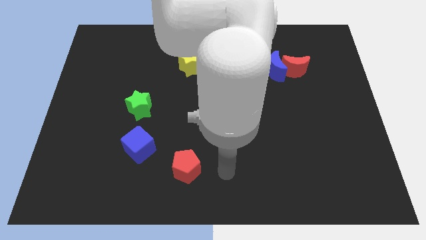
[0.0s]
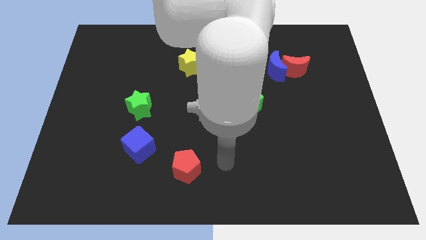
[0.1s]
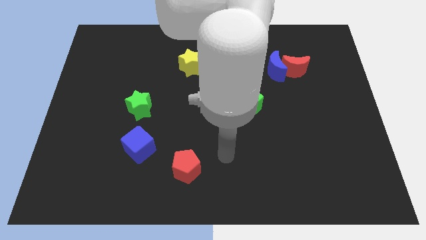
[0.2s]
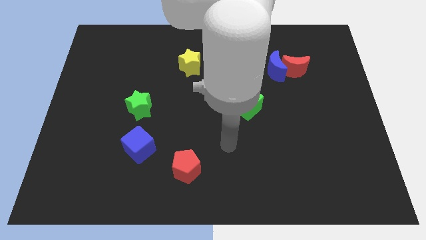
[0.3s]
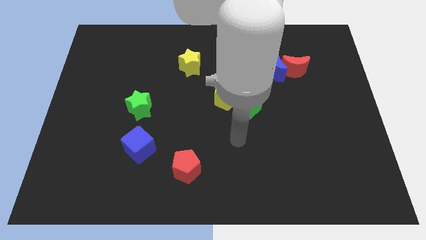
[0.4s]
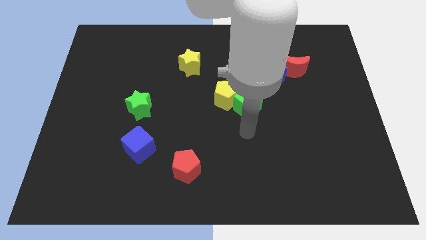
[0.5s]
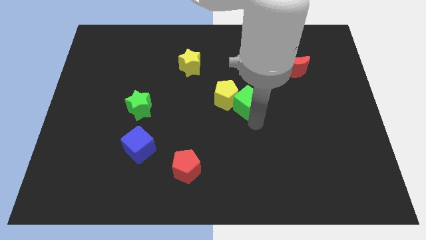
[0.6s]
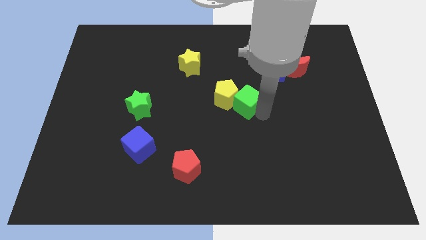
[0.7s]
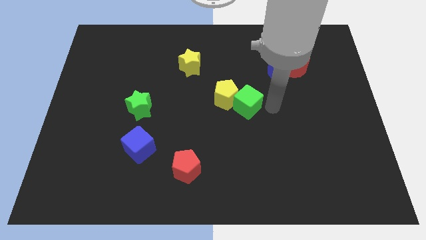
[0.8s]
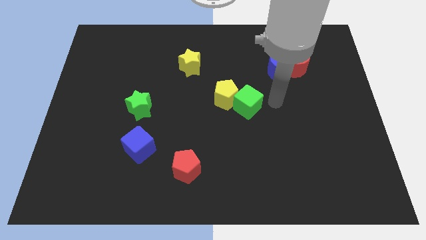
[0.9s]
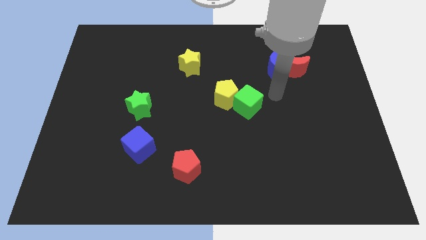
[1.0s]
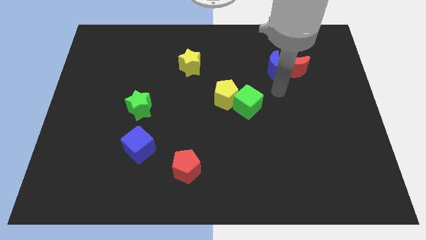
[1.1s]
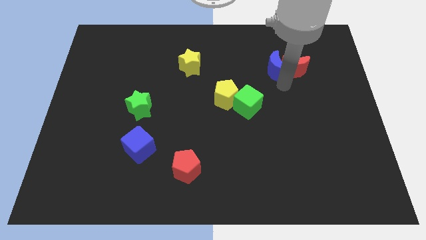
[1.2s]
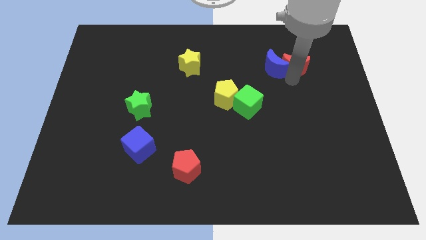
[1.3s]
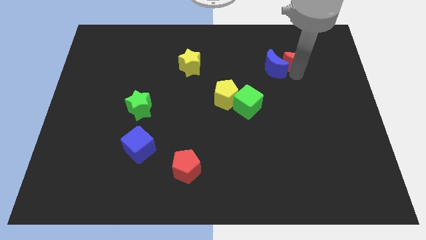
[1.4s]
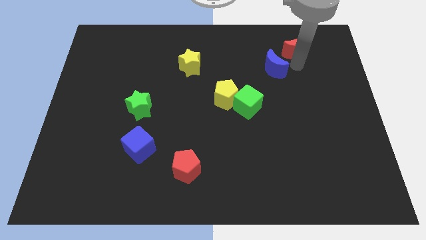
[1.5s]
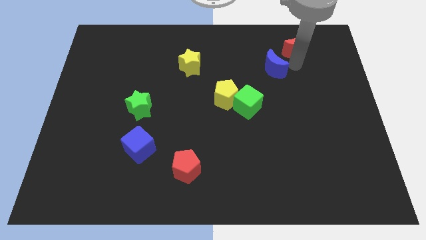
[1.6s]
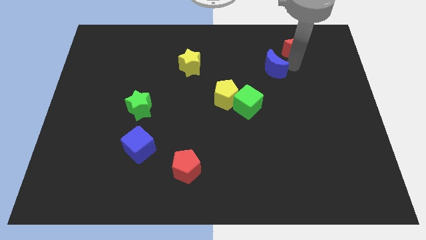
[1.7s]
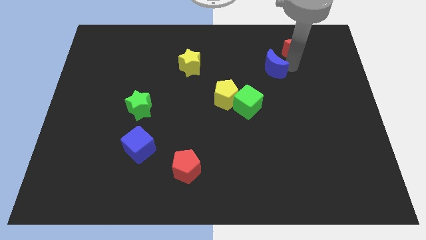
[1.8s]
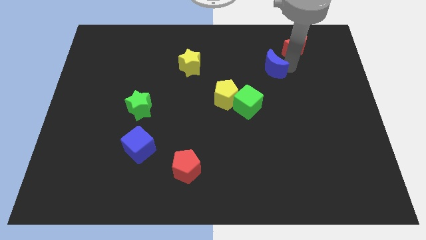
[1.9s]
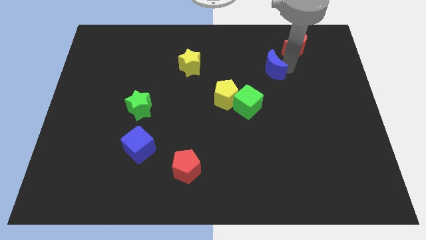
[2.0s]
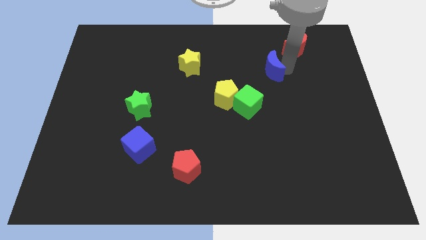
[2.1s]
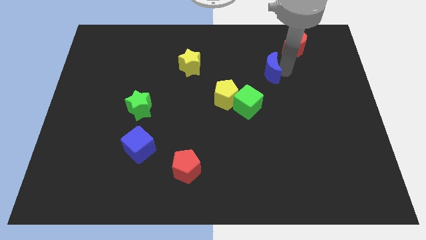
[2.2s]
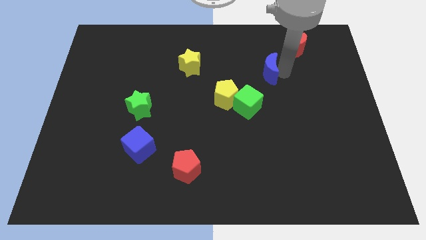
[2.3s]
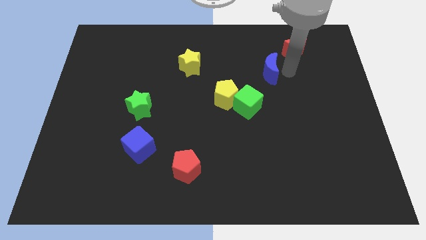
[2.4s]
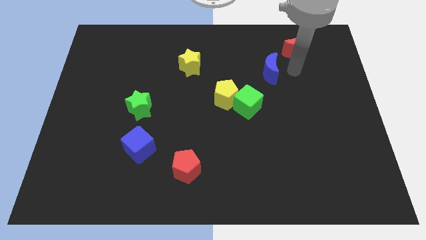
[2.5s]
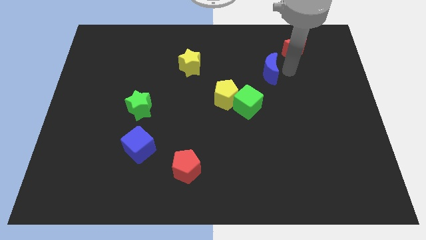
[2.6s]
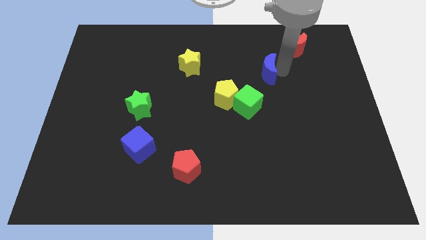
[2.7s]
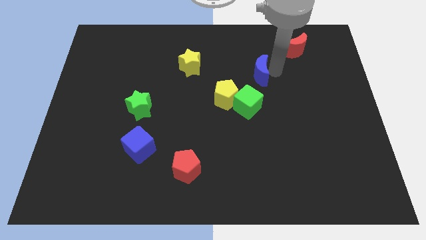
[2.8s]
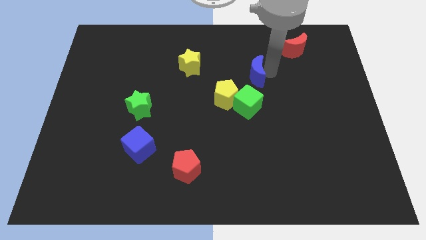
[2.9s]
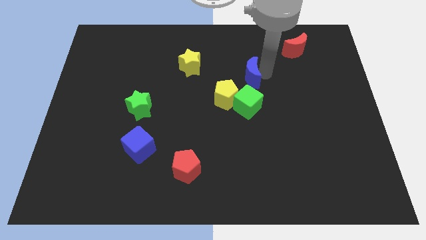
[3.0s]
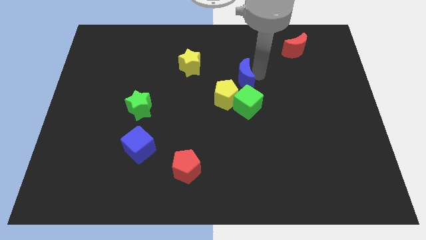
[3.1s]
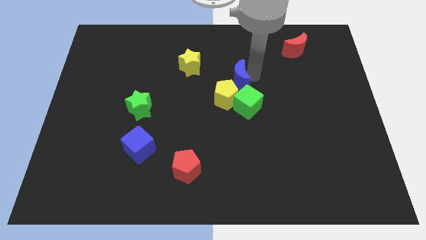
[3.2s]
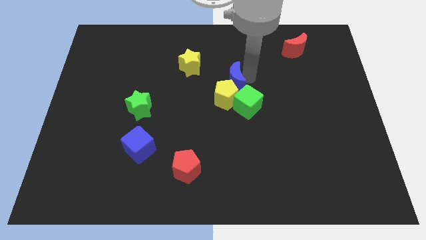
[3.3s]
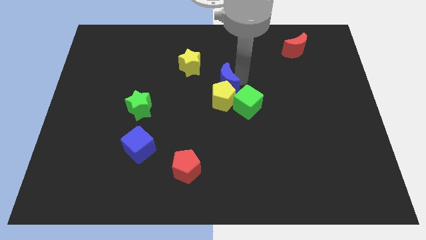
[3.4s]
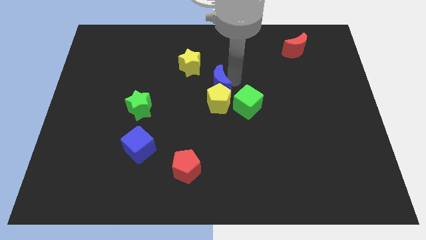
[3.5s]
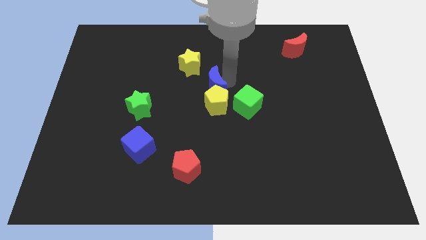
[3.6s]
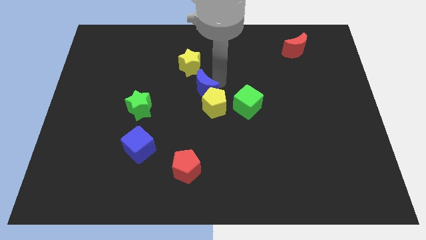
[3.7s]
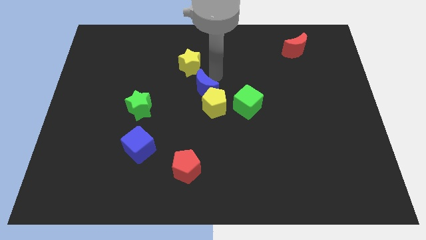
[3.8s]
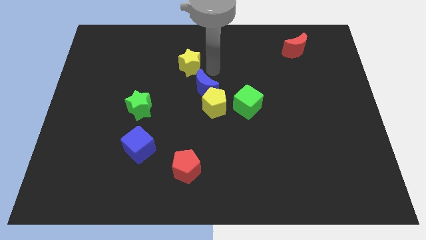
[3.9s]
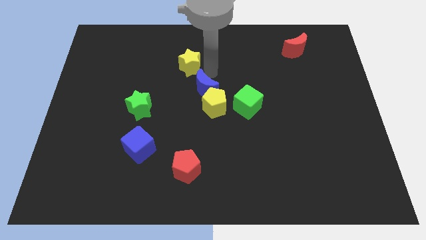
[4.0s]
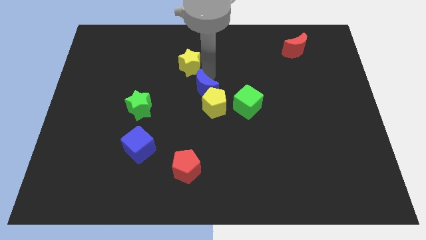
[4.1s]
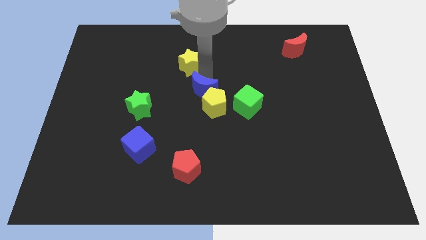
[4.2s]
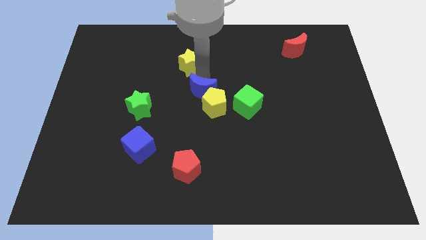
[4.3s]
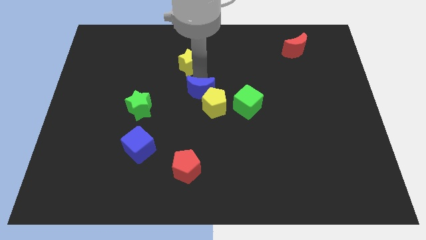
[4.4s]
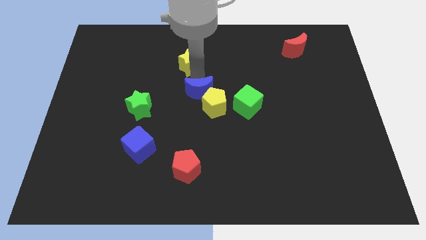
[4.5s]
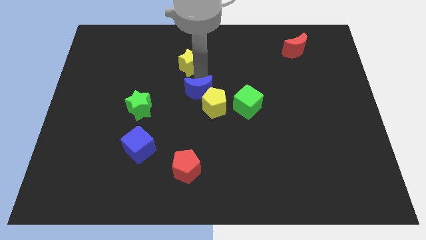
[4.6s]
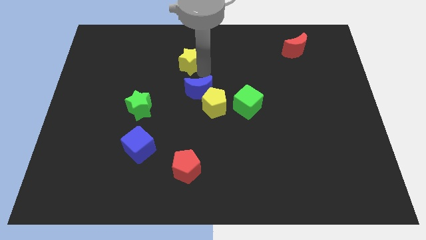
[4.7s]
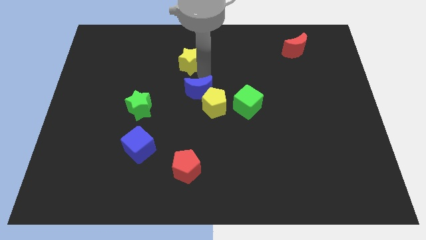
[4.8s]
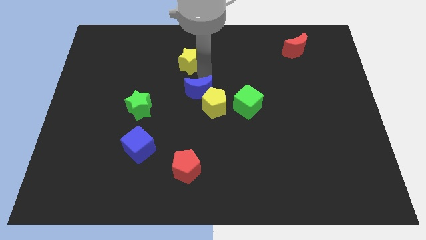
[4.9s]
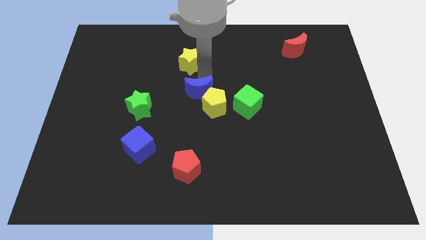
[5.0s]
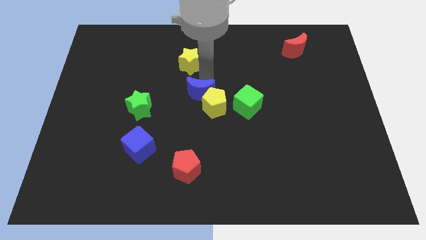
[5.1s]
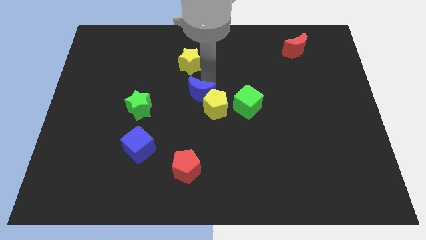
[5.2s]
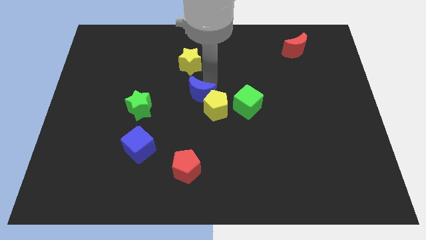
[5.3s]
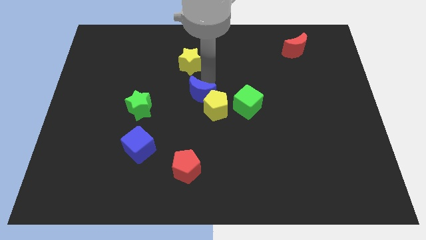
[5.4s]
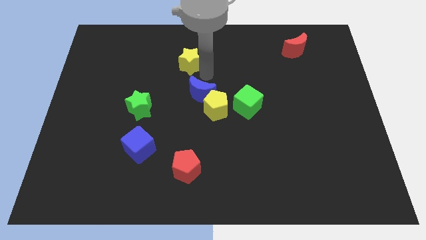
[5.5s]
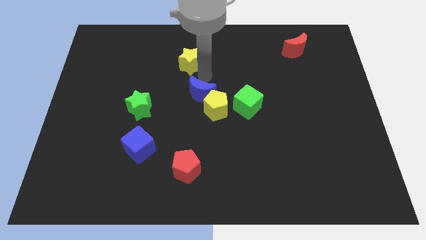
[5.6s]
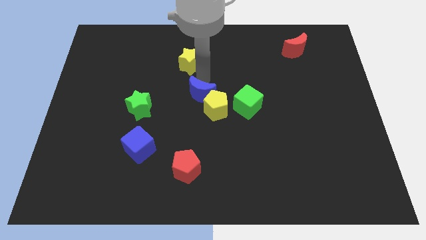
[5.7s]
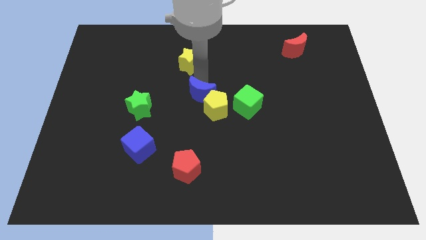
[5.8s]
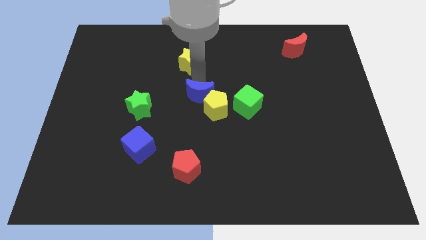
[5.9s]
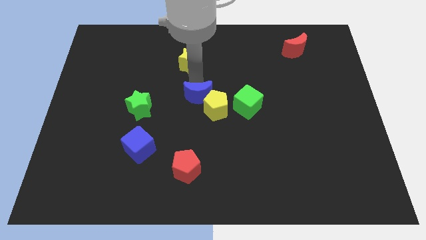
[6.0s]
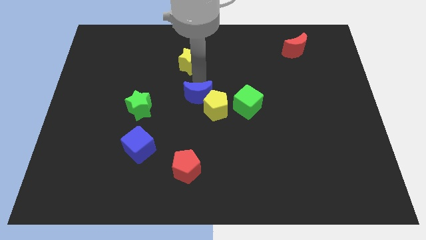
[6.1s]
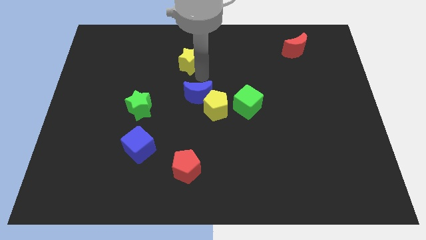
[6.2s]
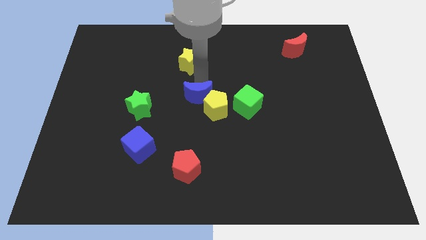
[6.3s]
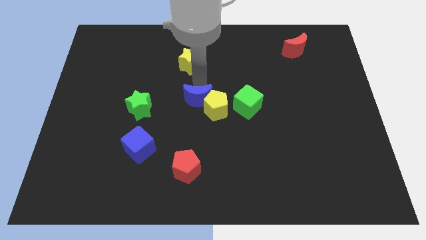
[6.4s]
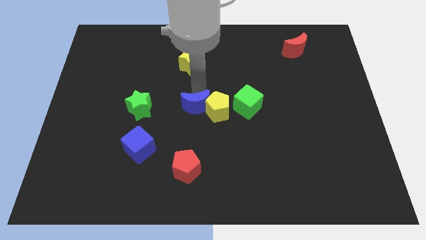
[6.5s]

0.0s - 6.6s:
move the blue moon diagonally down and to the left of the yellow pentagon
